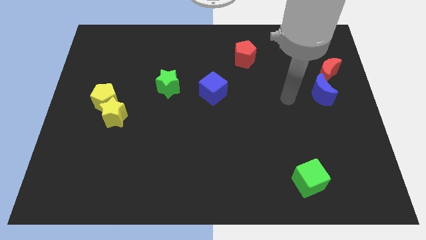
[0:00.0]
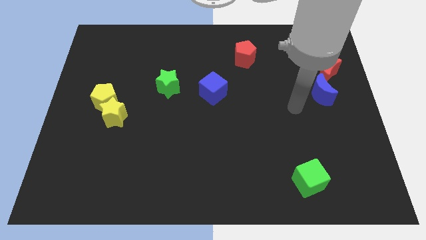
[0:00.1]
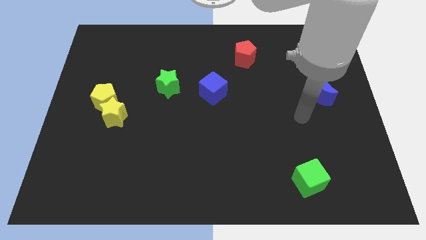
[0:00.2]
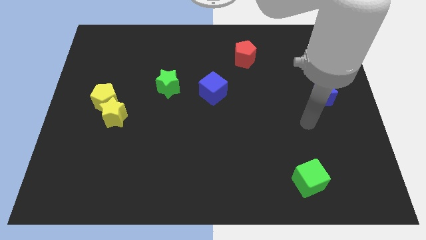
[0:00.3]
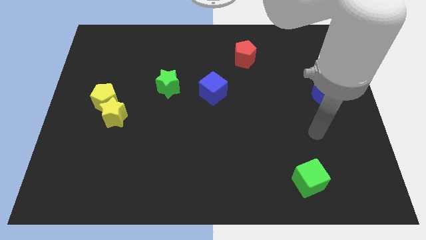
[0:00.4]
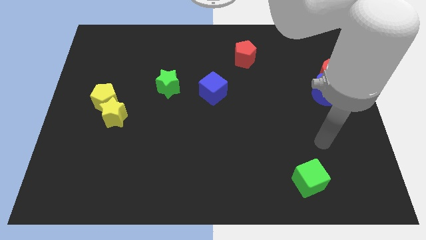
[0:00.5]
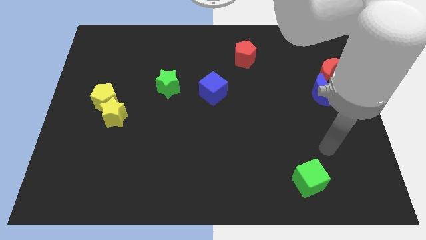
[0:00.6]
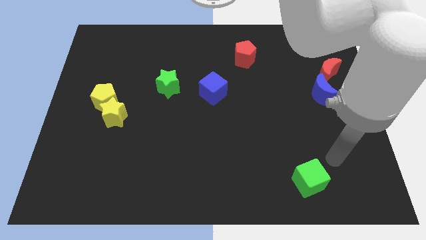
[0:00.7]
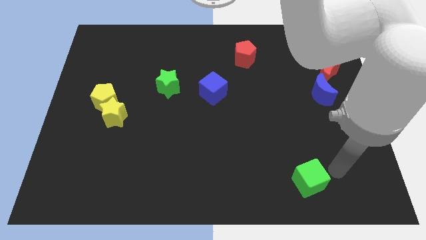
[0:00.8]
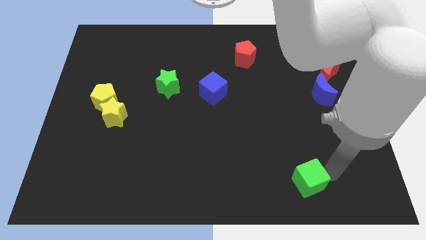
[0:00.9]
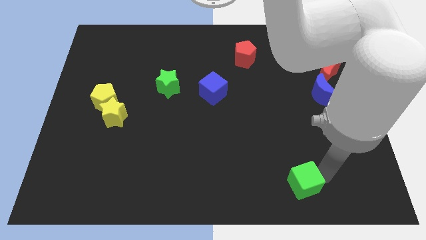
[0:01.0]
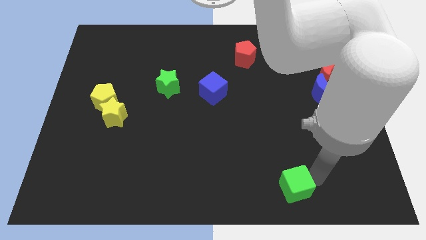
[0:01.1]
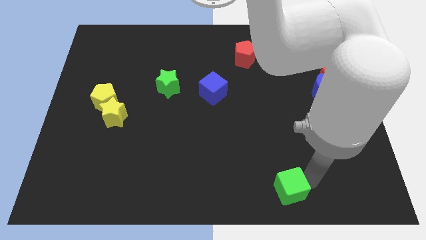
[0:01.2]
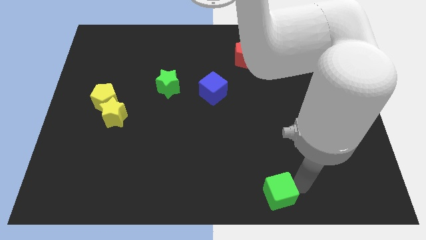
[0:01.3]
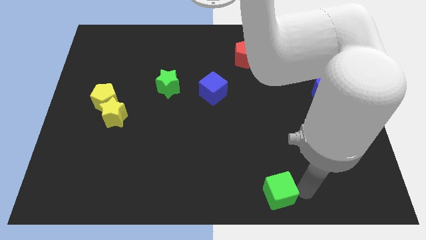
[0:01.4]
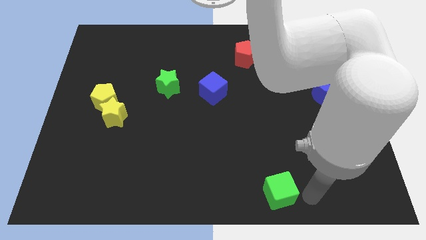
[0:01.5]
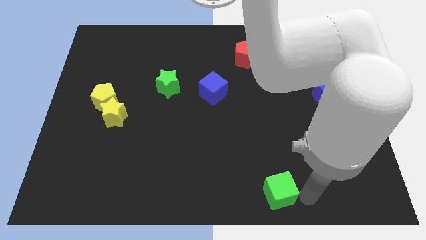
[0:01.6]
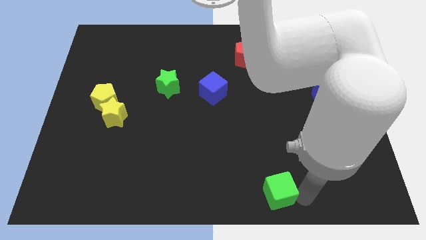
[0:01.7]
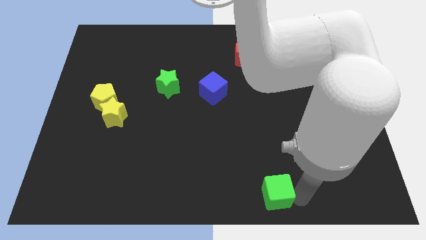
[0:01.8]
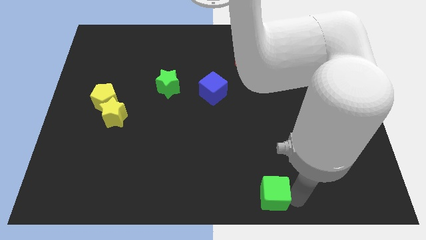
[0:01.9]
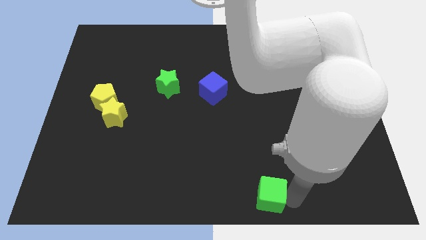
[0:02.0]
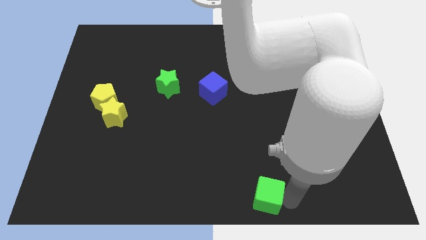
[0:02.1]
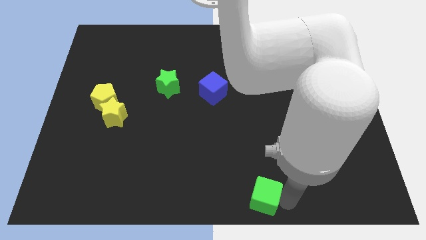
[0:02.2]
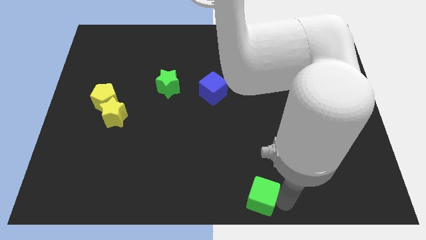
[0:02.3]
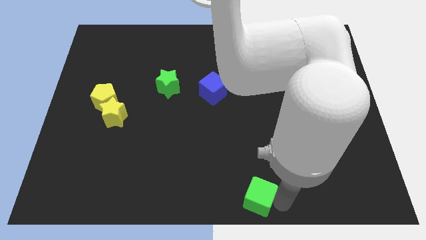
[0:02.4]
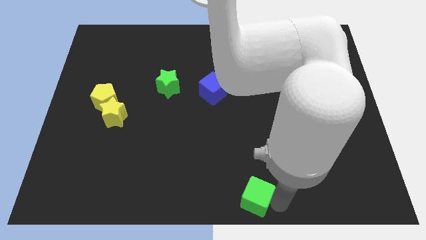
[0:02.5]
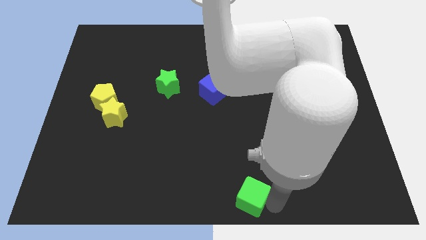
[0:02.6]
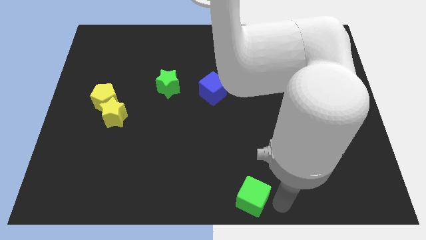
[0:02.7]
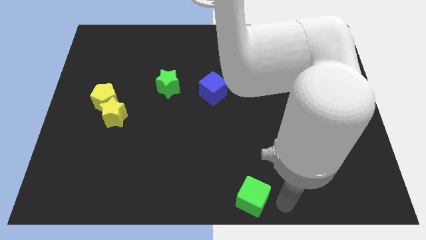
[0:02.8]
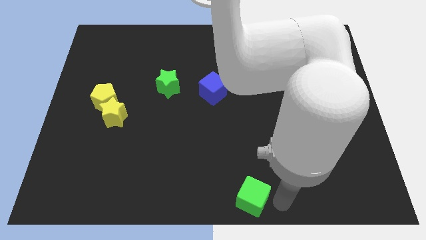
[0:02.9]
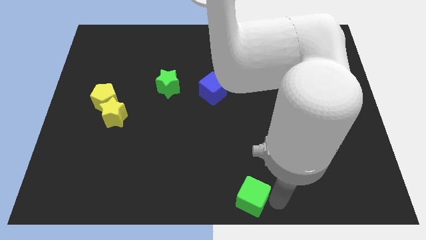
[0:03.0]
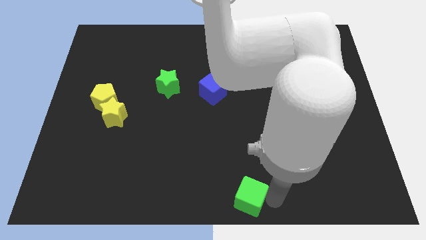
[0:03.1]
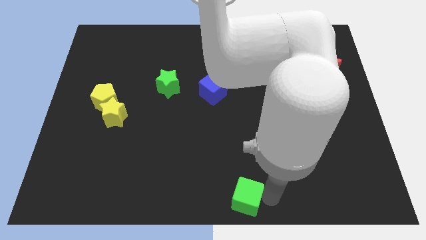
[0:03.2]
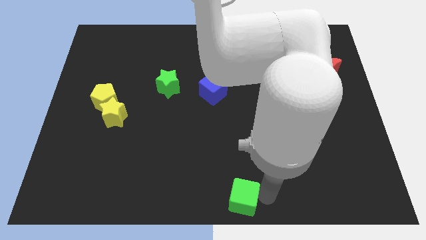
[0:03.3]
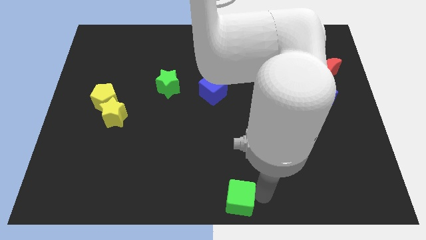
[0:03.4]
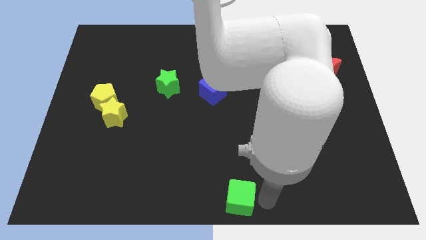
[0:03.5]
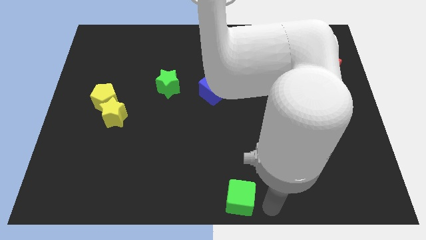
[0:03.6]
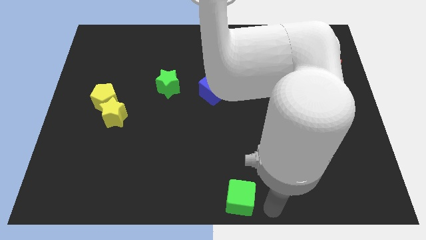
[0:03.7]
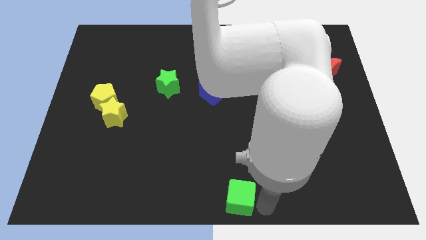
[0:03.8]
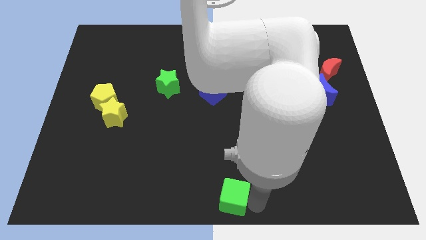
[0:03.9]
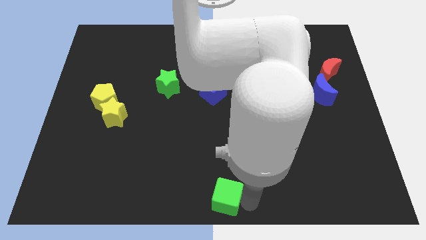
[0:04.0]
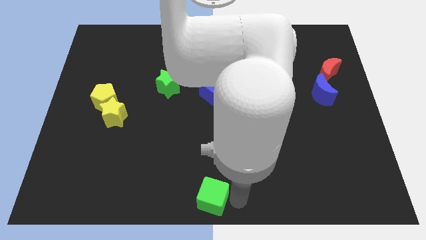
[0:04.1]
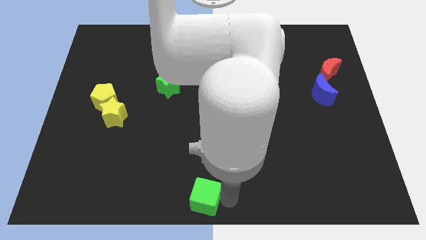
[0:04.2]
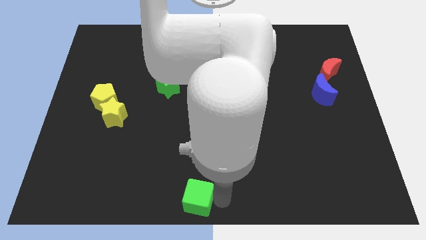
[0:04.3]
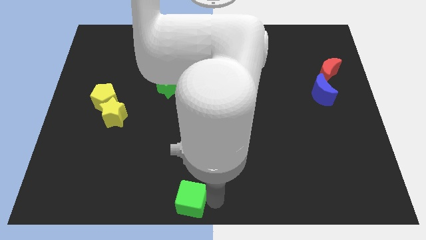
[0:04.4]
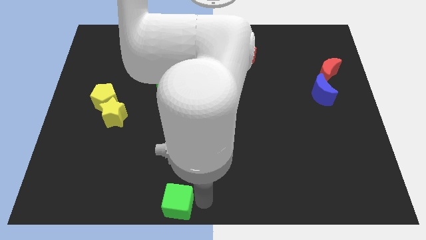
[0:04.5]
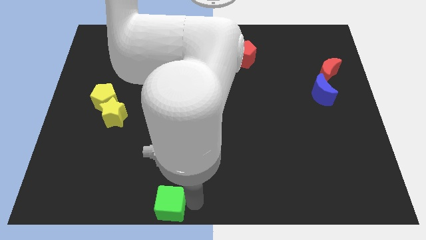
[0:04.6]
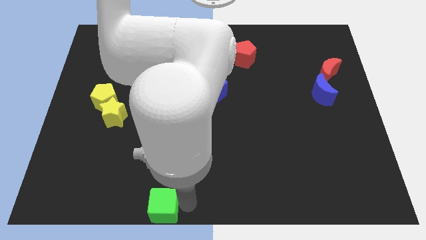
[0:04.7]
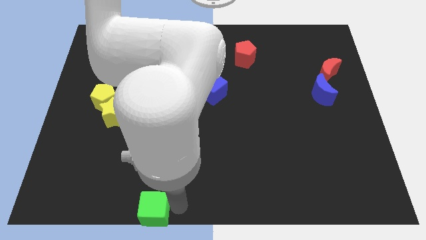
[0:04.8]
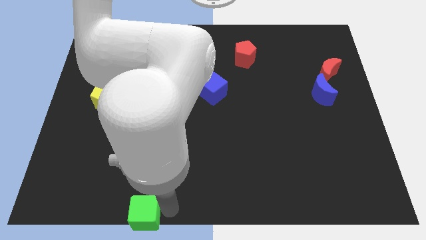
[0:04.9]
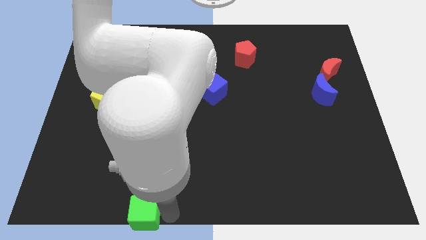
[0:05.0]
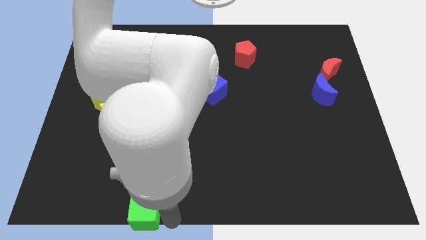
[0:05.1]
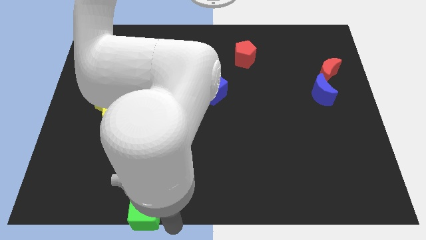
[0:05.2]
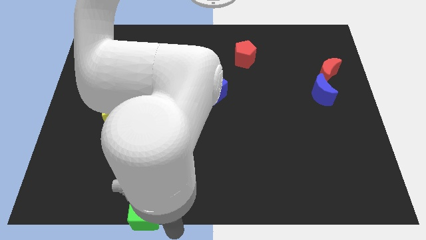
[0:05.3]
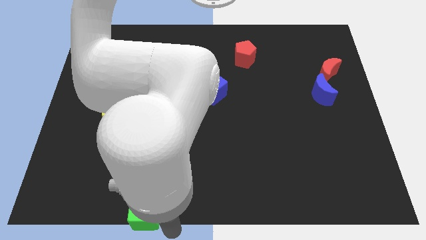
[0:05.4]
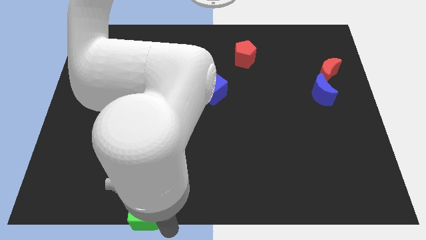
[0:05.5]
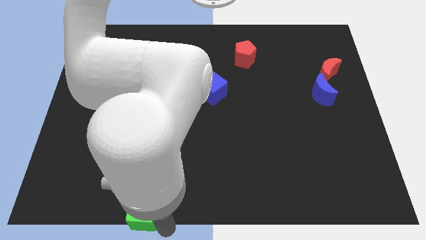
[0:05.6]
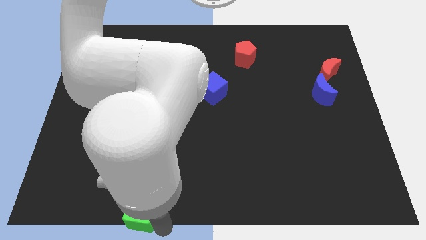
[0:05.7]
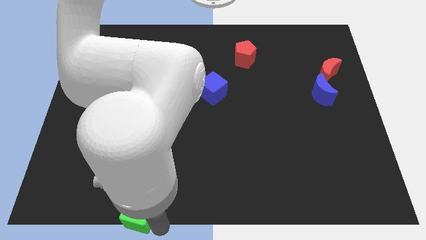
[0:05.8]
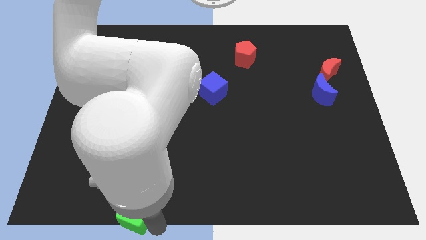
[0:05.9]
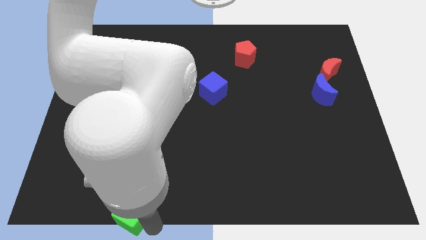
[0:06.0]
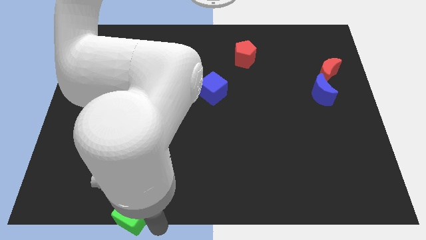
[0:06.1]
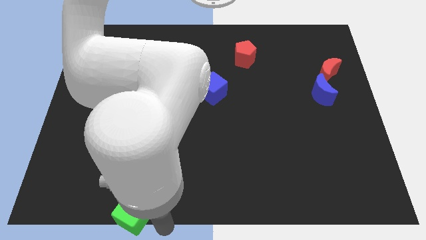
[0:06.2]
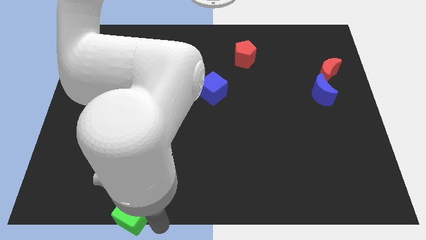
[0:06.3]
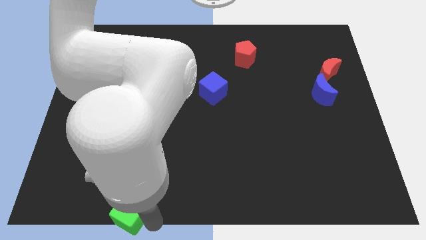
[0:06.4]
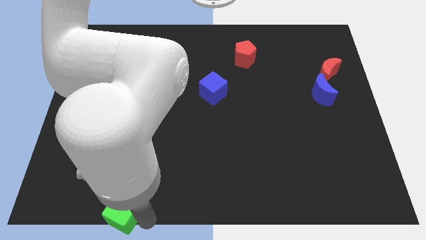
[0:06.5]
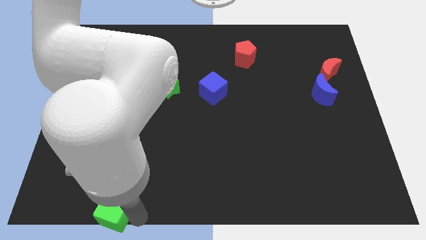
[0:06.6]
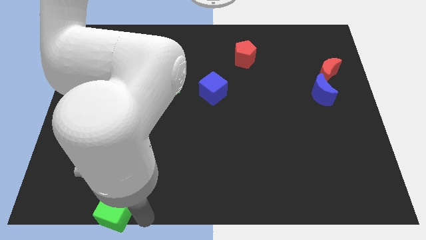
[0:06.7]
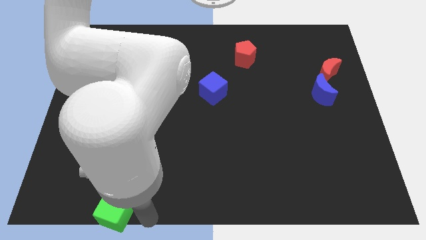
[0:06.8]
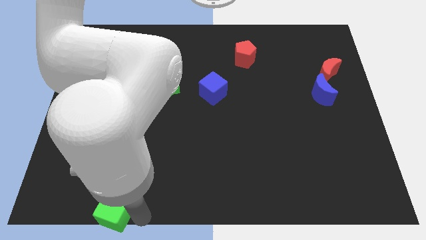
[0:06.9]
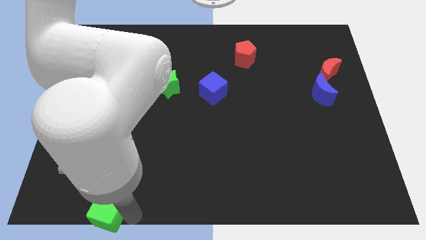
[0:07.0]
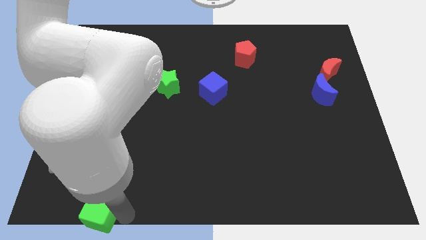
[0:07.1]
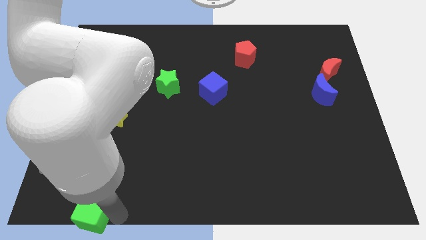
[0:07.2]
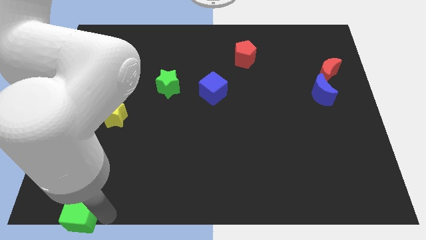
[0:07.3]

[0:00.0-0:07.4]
put the green cube to the bottom left of the board
